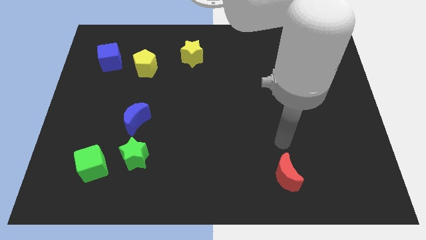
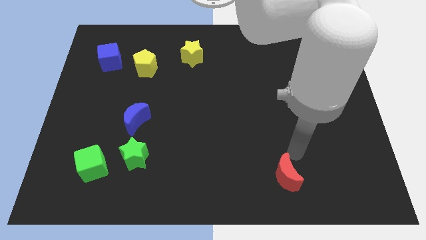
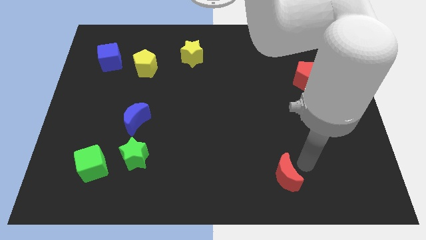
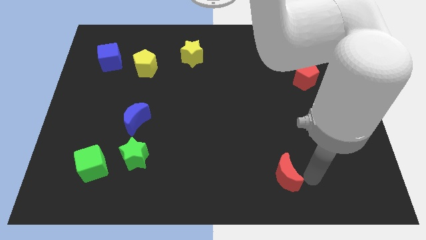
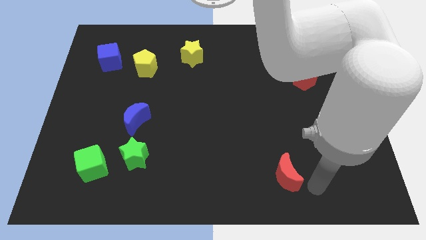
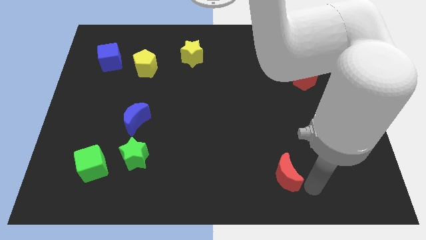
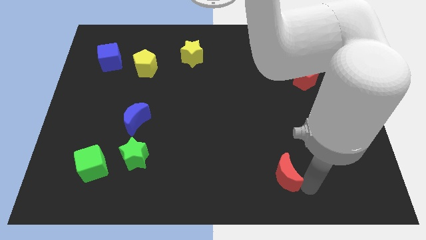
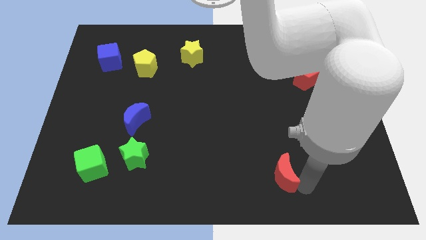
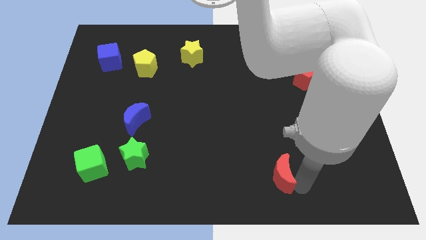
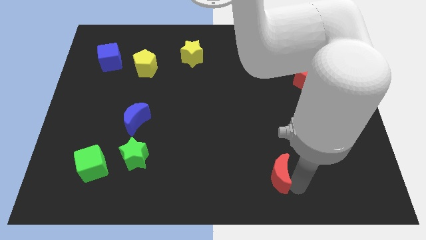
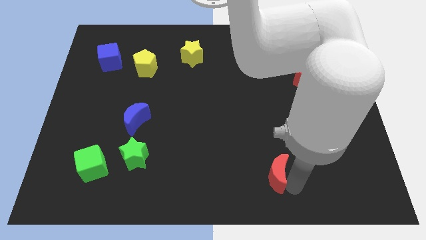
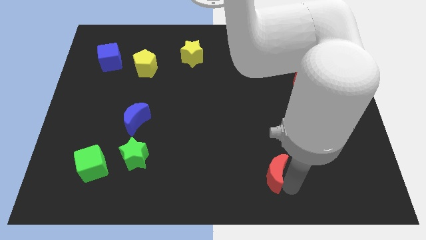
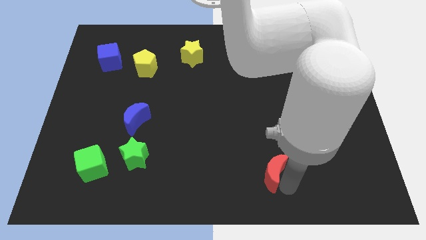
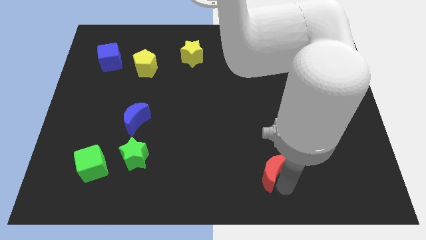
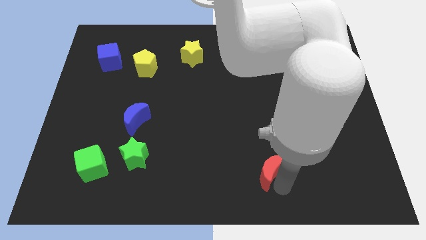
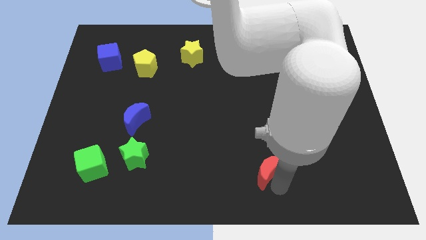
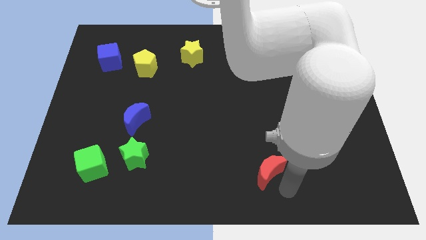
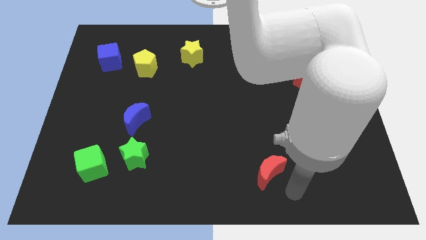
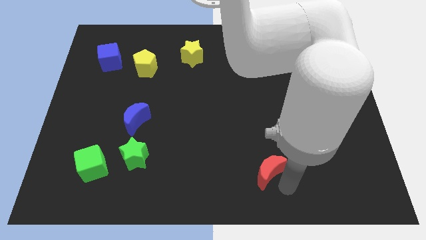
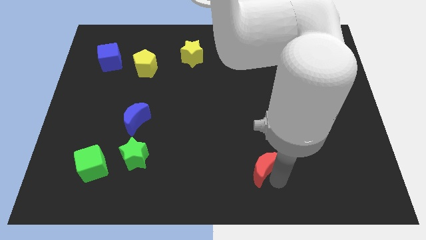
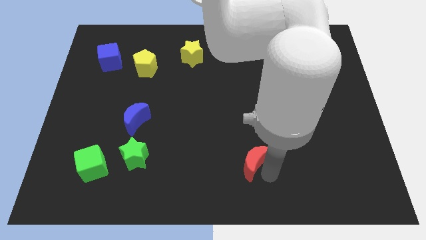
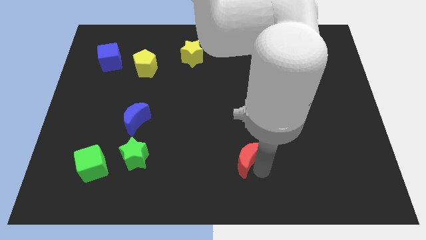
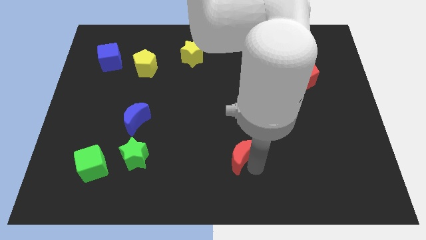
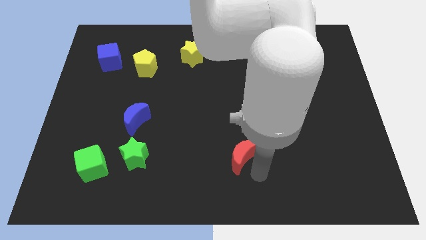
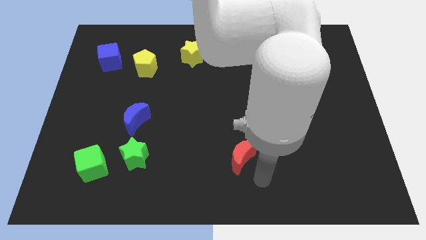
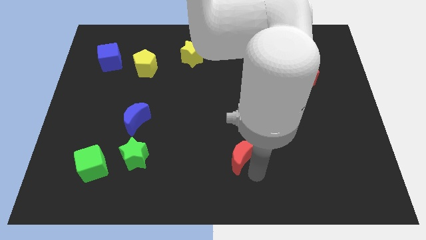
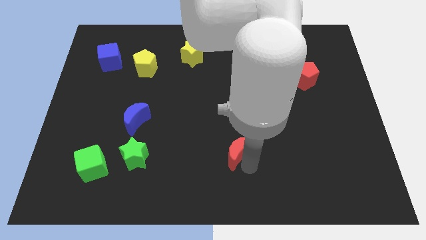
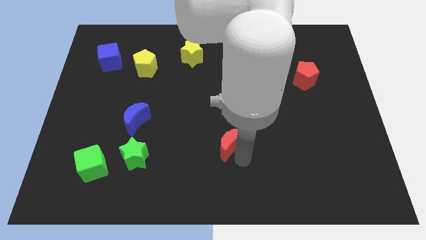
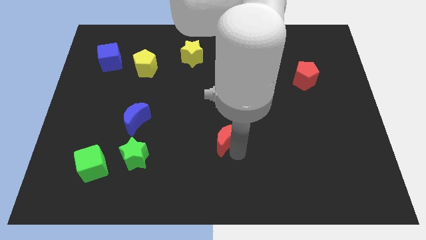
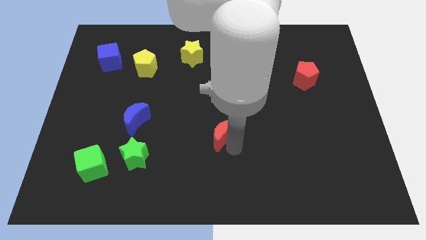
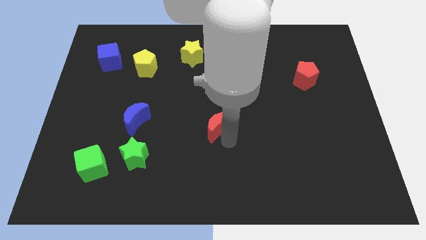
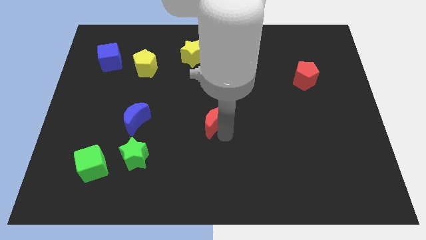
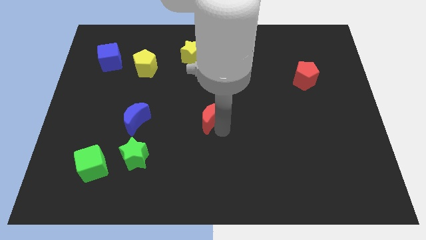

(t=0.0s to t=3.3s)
slide the red moon upwards and left diagonally

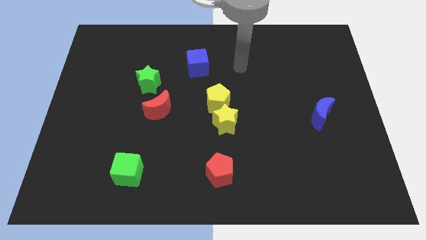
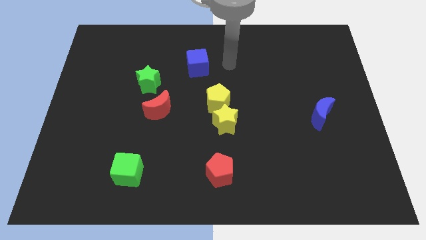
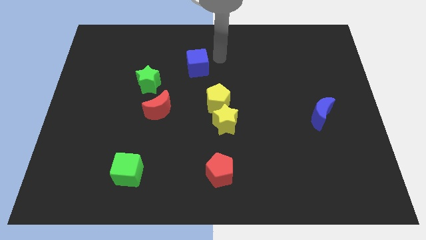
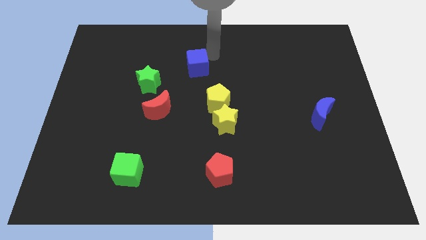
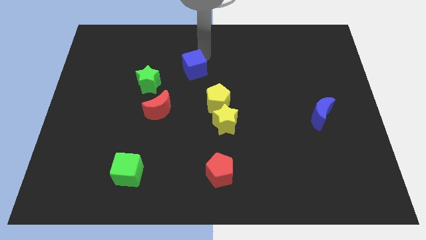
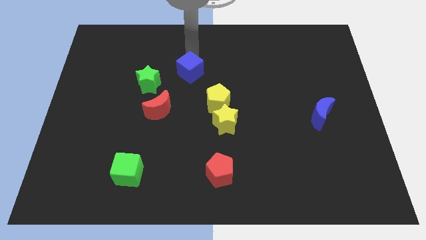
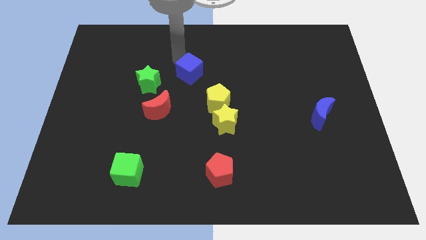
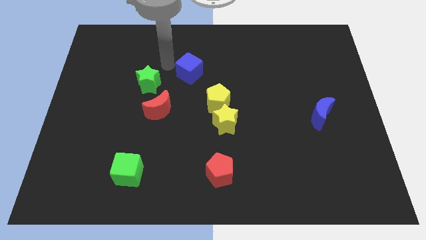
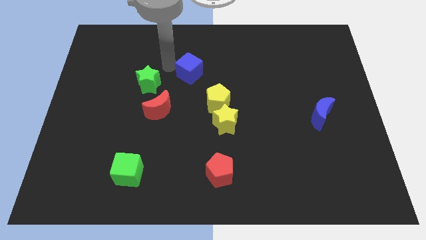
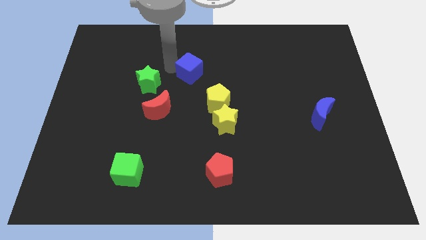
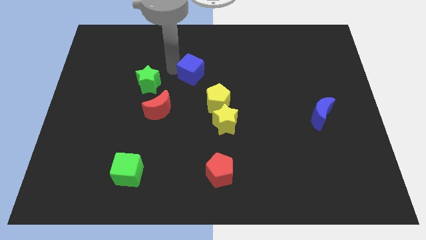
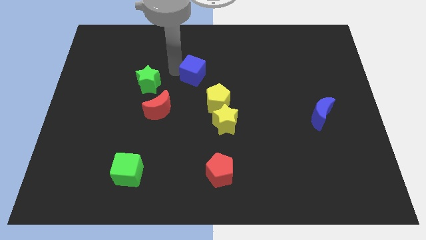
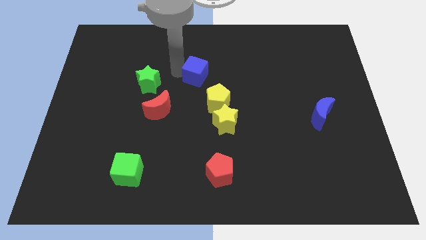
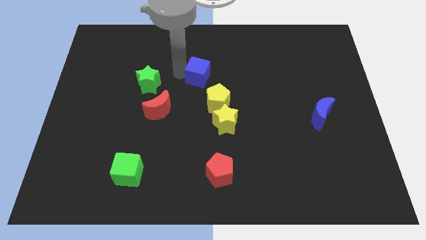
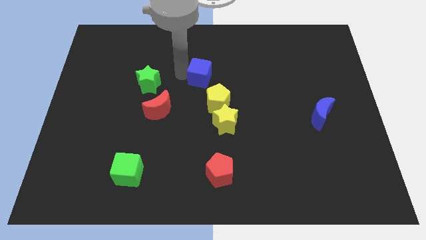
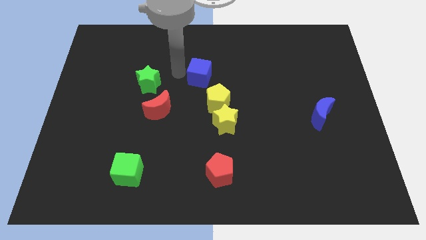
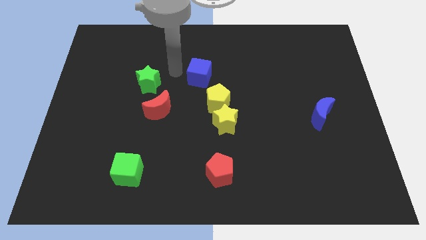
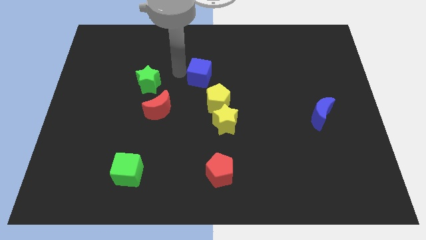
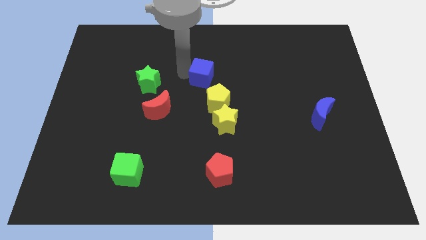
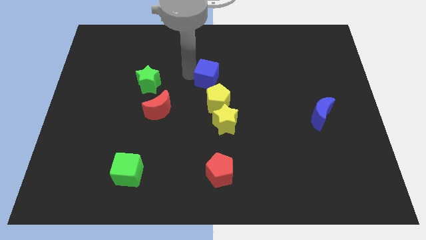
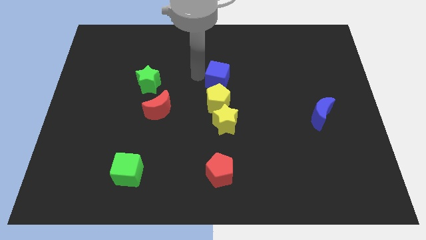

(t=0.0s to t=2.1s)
move the blue cube a bit diagonally down and to the right

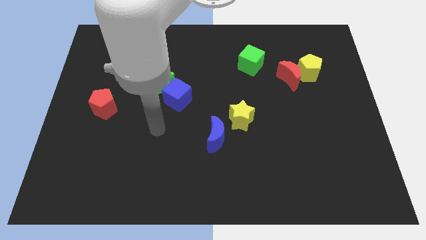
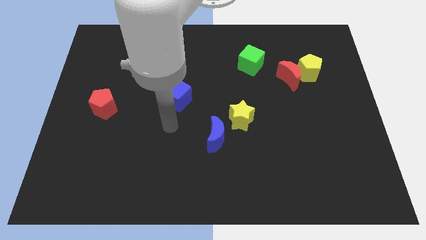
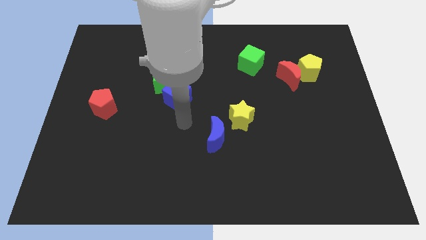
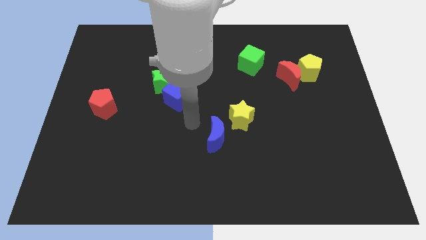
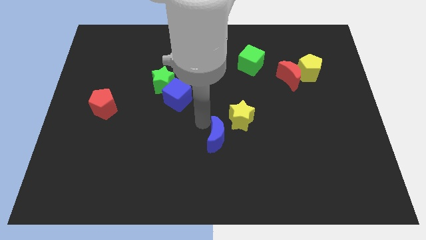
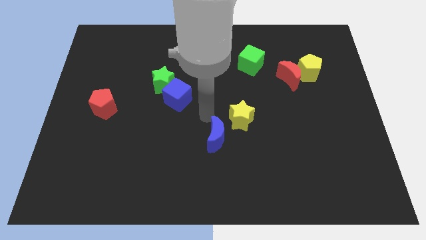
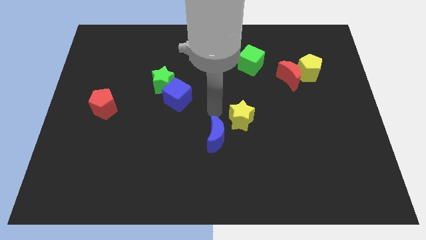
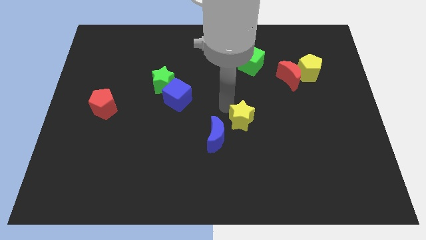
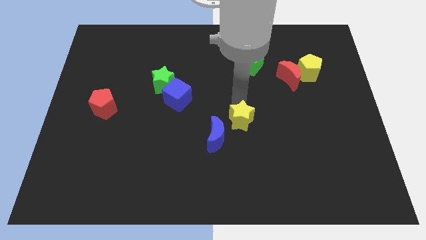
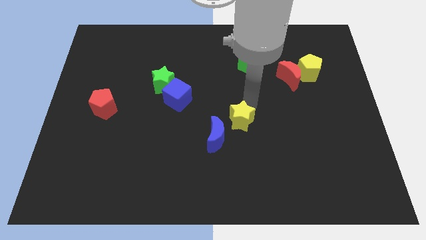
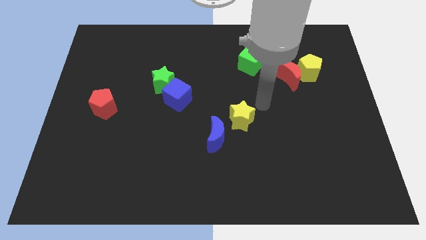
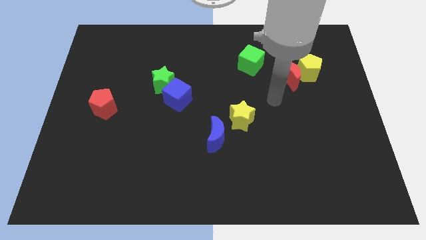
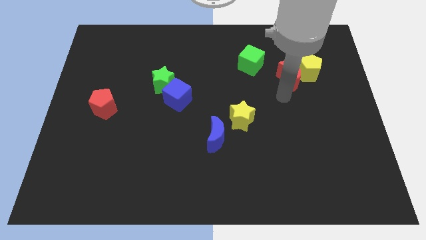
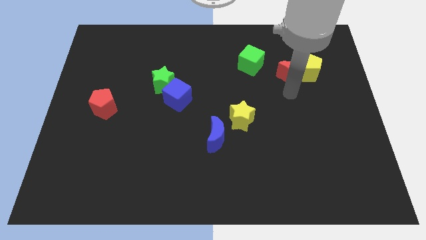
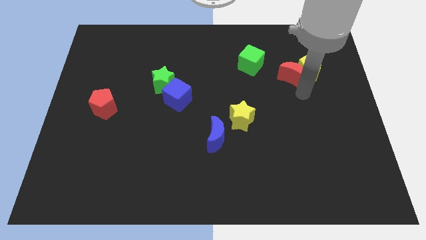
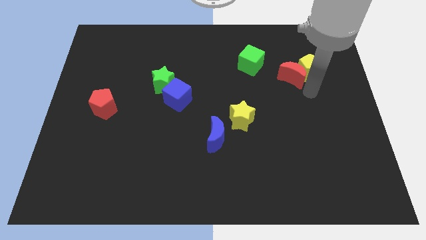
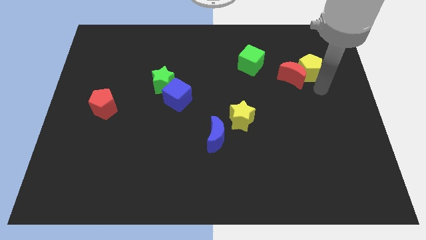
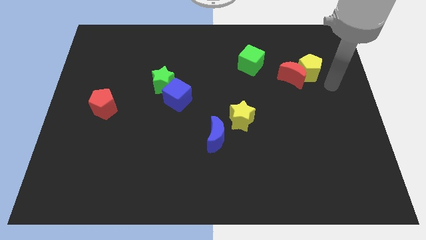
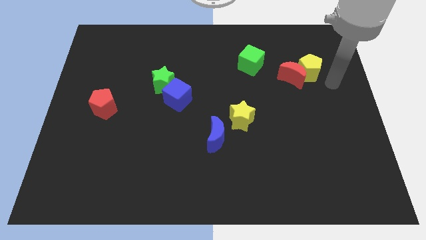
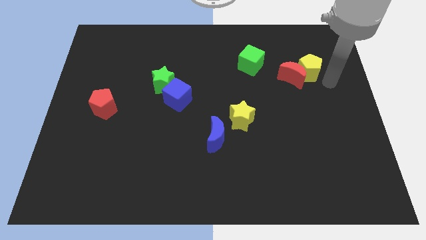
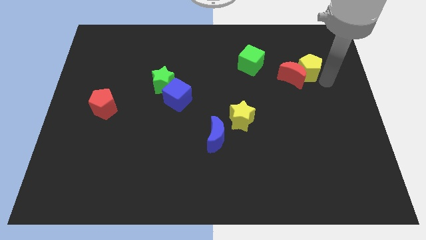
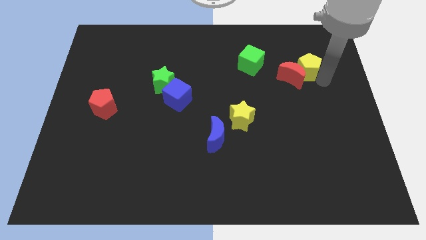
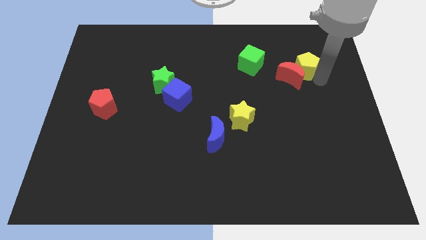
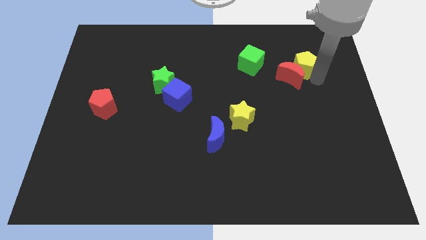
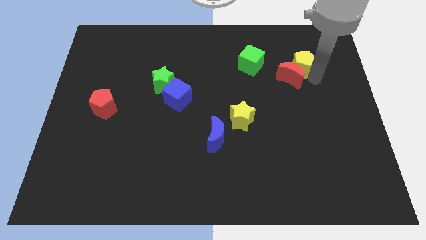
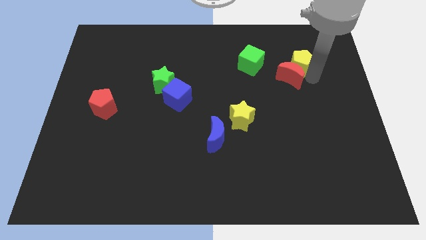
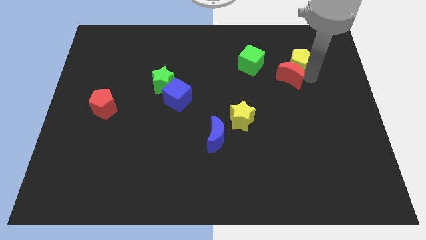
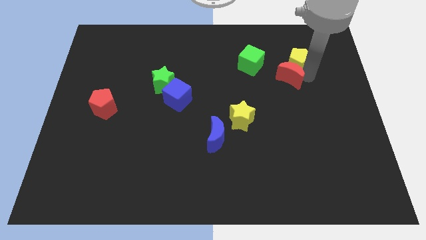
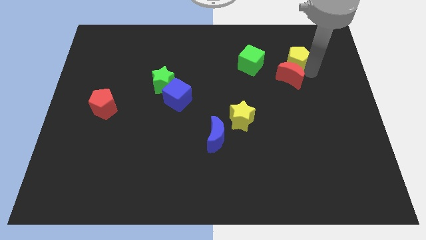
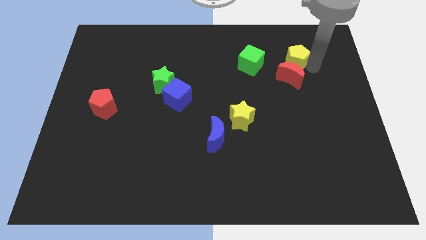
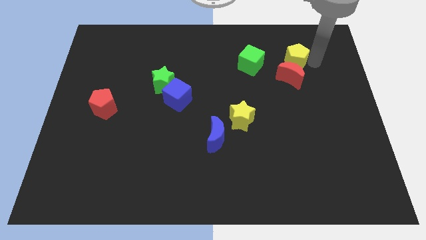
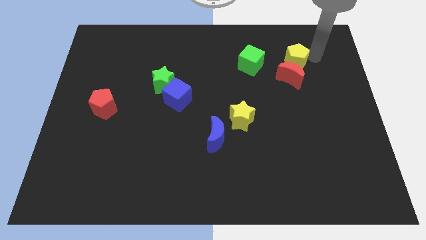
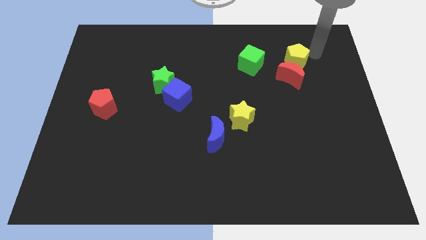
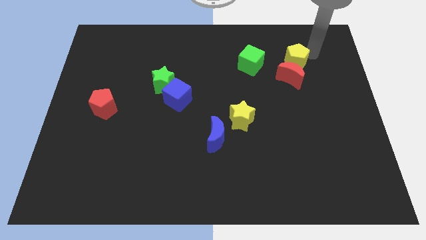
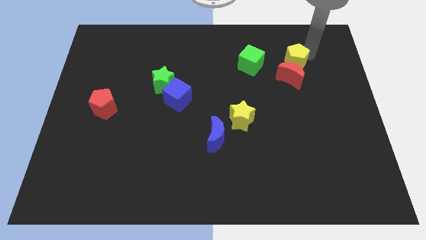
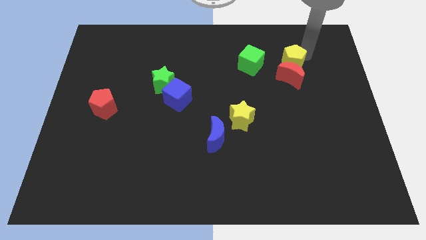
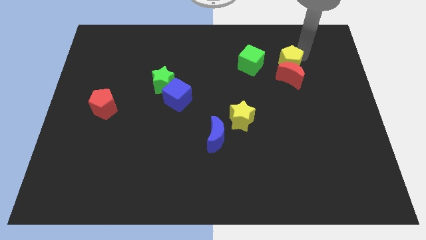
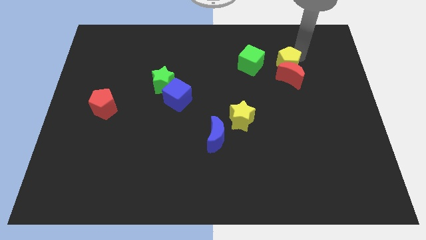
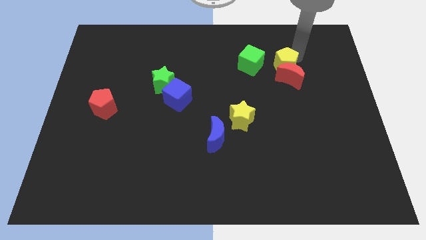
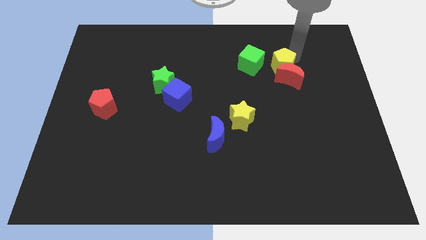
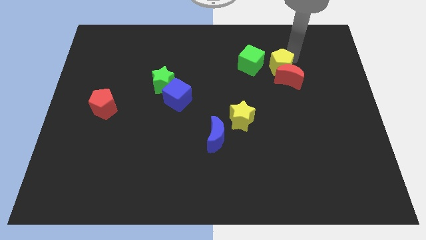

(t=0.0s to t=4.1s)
move the yellow pentagon left a little bit
